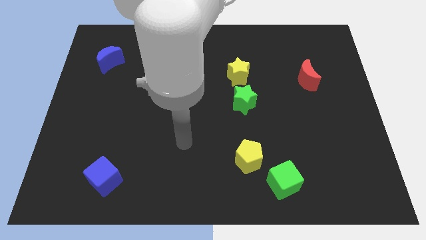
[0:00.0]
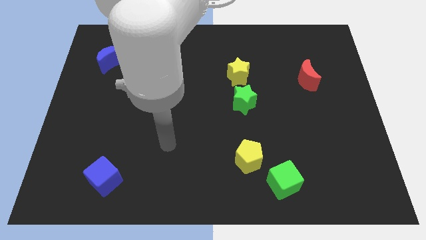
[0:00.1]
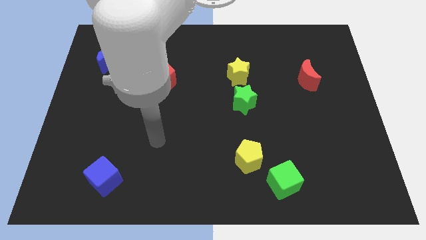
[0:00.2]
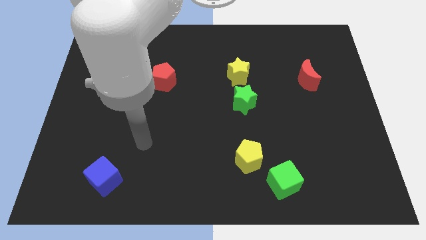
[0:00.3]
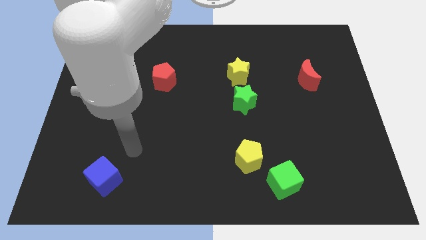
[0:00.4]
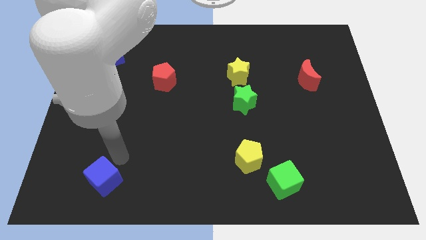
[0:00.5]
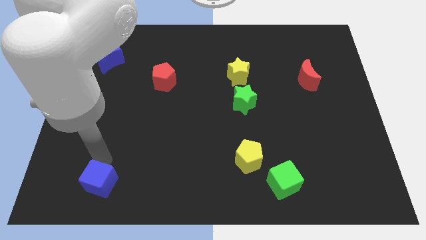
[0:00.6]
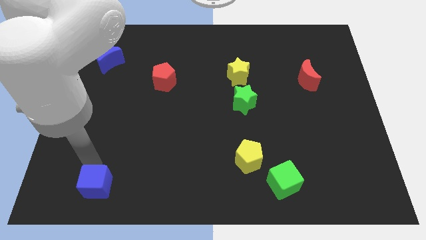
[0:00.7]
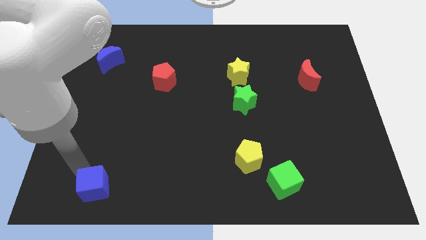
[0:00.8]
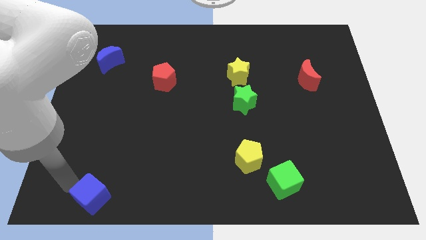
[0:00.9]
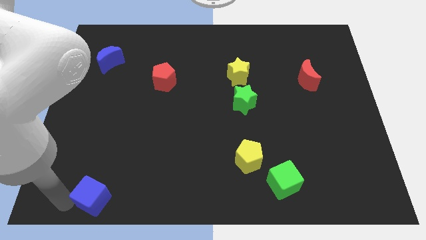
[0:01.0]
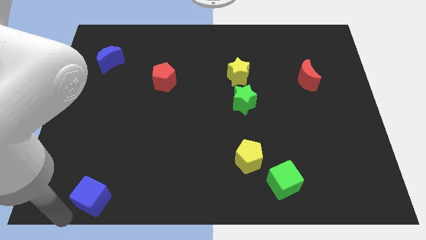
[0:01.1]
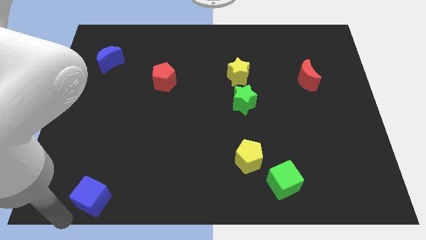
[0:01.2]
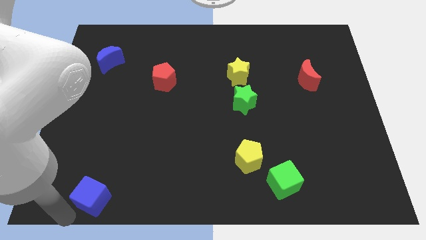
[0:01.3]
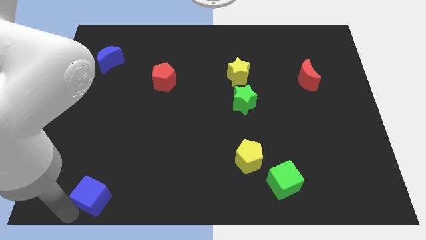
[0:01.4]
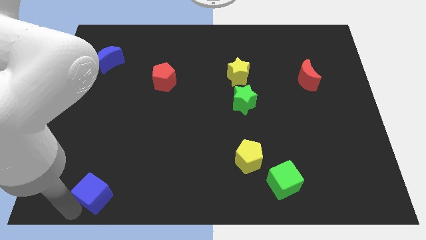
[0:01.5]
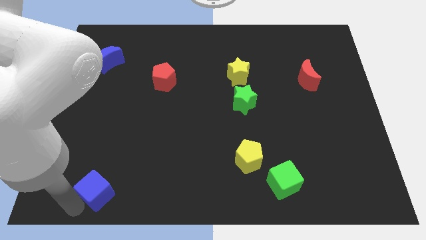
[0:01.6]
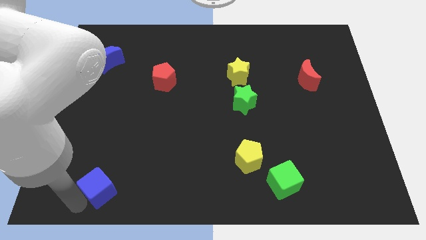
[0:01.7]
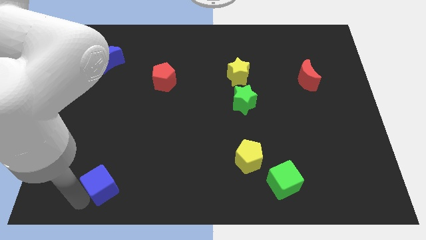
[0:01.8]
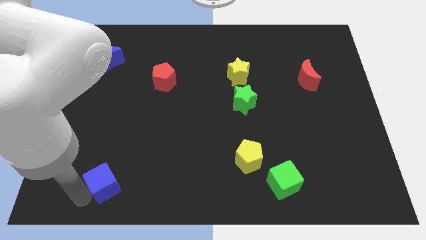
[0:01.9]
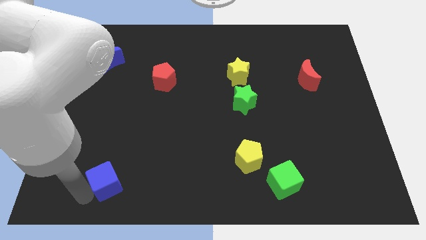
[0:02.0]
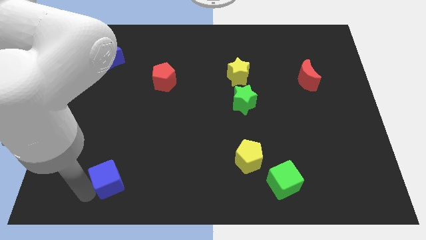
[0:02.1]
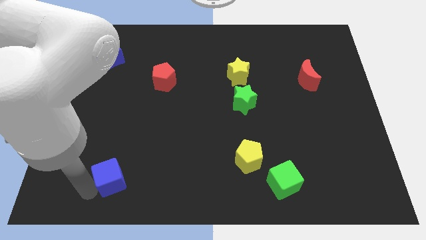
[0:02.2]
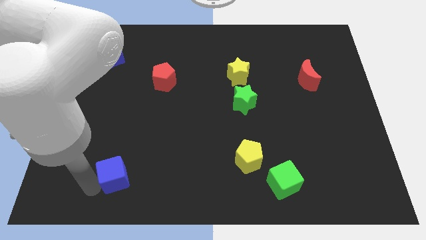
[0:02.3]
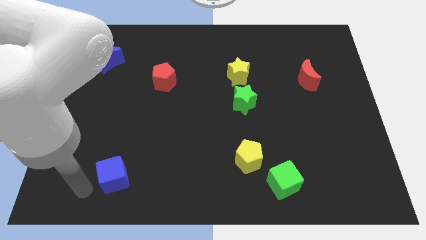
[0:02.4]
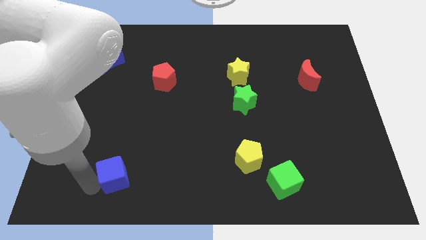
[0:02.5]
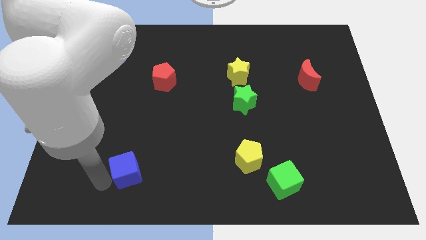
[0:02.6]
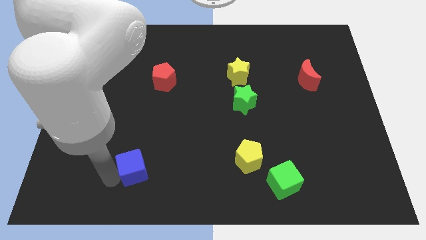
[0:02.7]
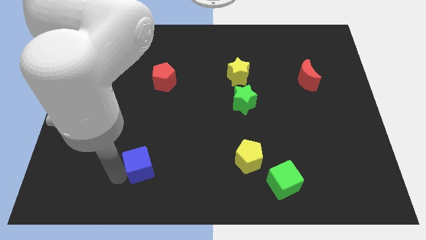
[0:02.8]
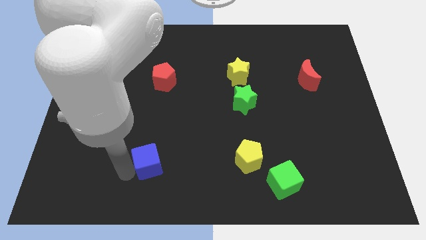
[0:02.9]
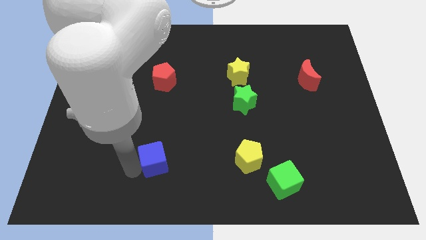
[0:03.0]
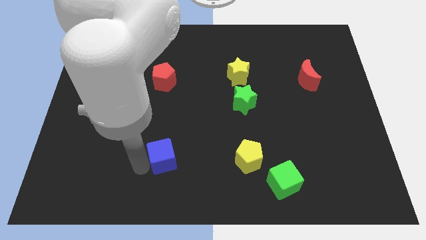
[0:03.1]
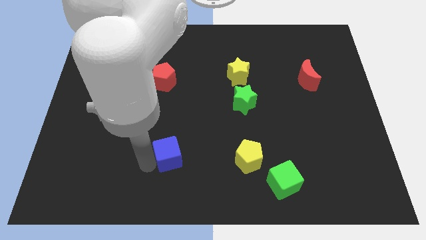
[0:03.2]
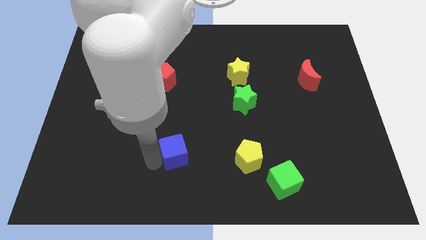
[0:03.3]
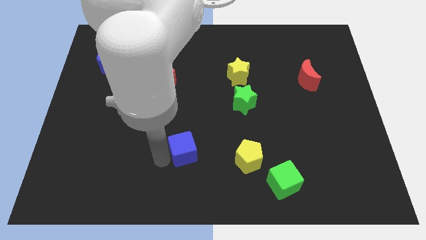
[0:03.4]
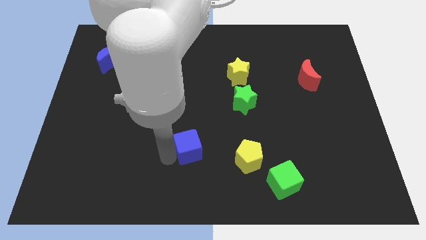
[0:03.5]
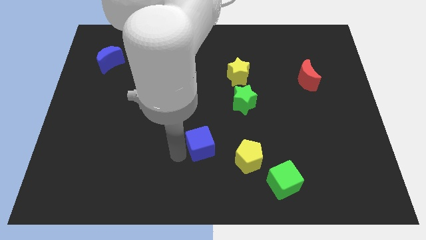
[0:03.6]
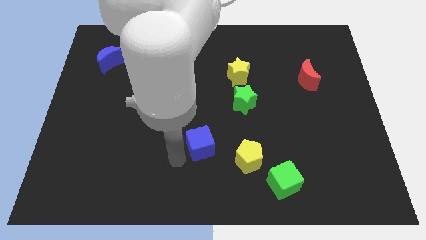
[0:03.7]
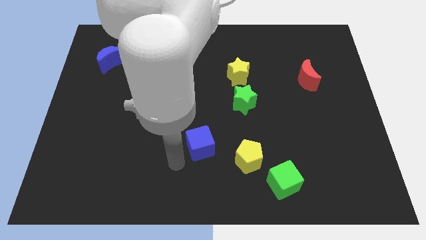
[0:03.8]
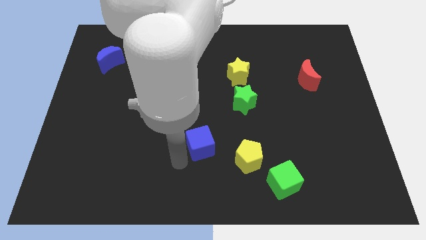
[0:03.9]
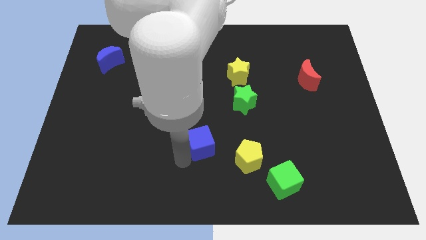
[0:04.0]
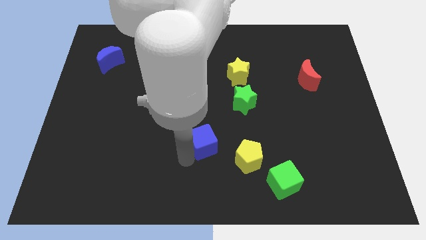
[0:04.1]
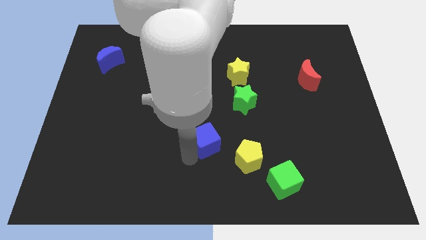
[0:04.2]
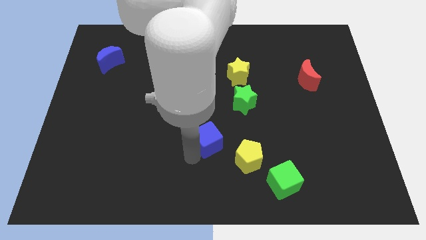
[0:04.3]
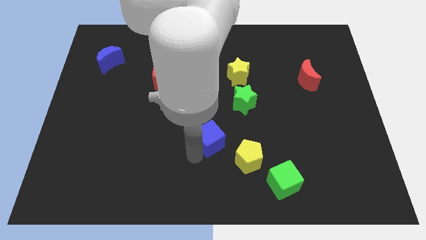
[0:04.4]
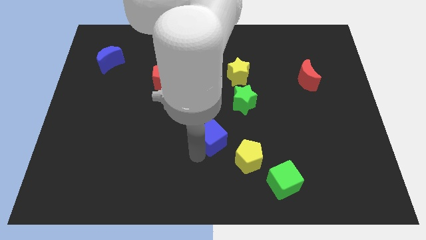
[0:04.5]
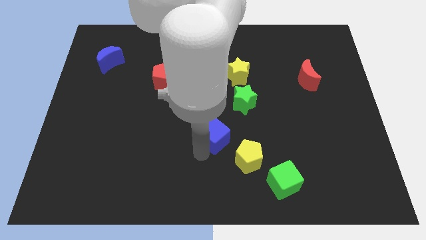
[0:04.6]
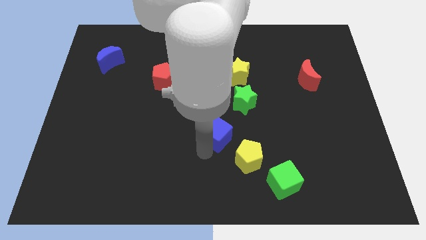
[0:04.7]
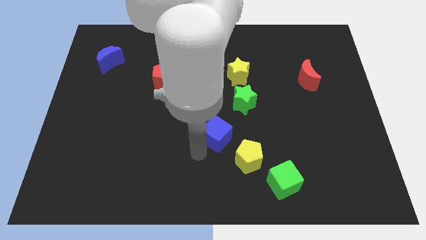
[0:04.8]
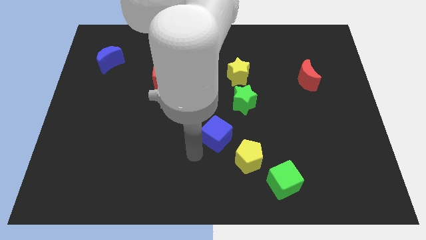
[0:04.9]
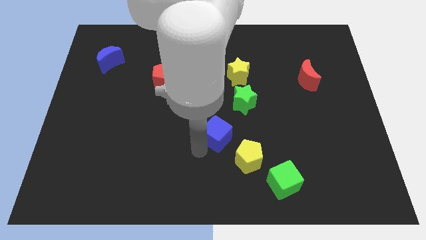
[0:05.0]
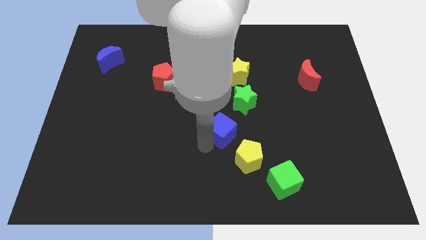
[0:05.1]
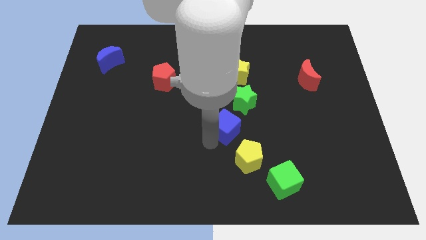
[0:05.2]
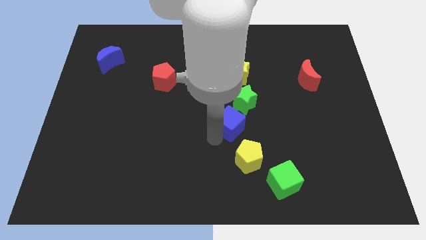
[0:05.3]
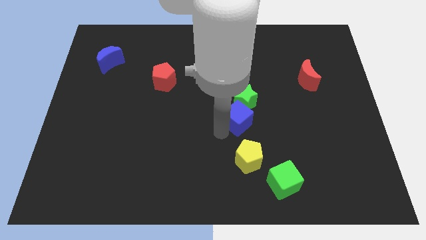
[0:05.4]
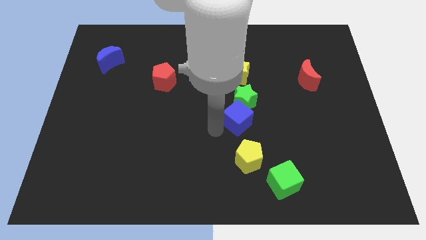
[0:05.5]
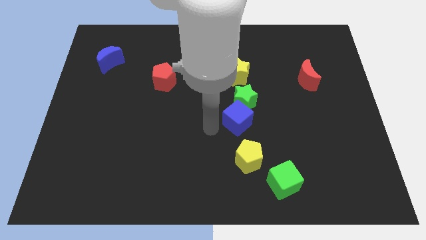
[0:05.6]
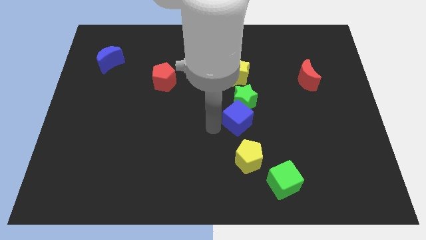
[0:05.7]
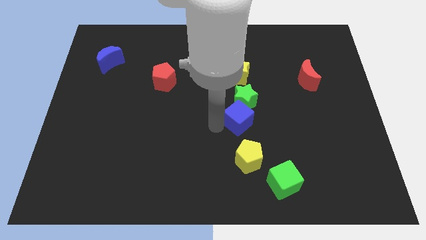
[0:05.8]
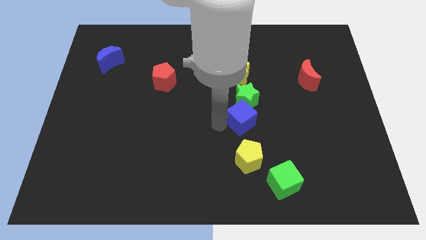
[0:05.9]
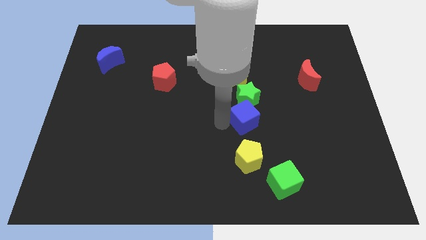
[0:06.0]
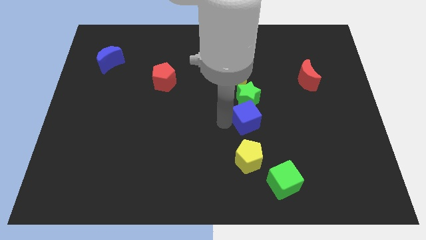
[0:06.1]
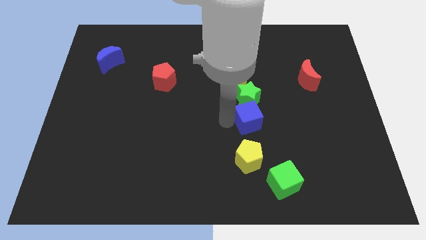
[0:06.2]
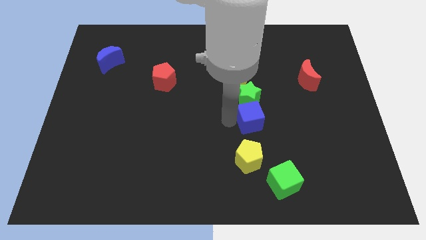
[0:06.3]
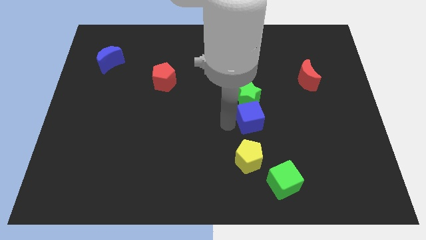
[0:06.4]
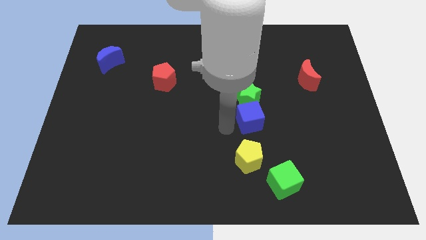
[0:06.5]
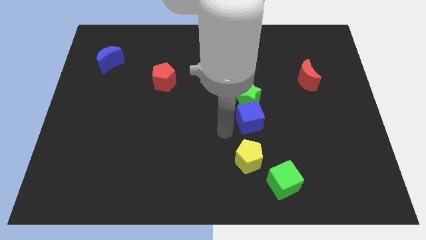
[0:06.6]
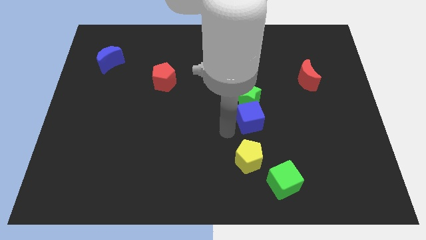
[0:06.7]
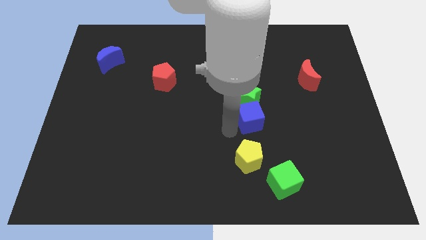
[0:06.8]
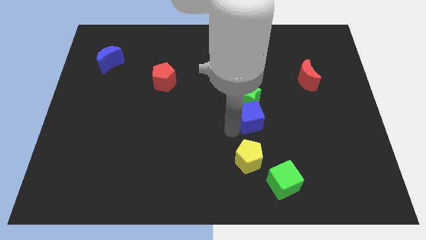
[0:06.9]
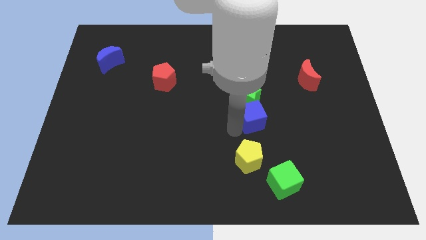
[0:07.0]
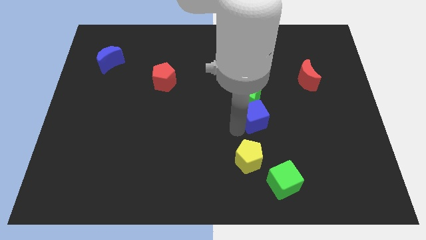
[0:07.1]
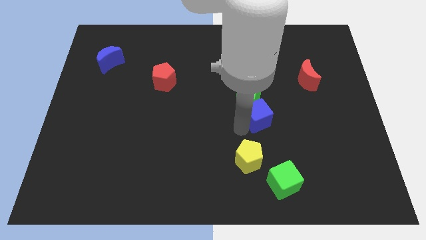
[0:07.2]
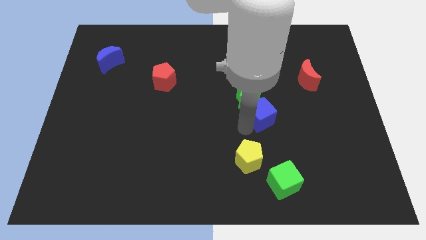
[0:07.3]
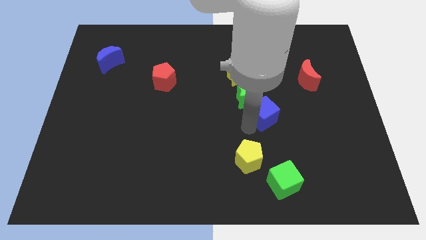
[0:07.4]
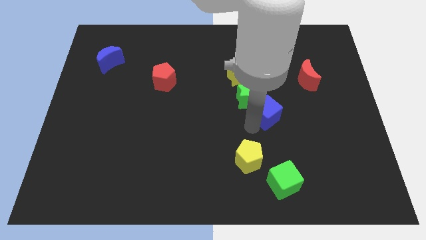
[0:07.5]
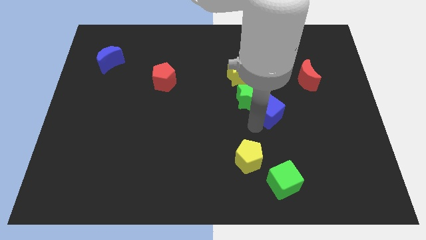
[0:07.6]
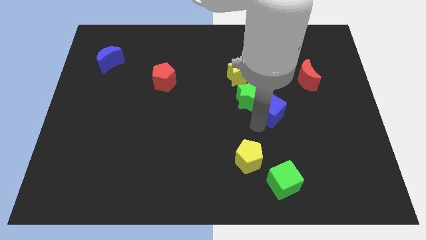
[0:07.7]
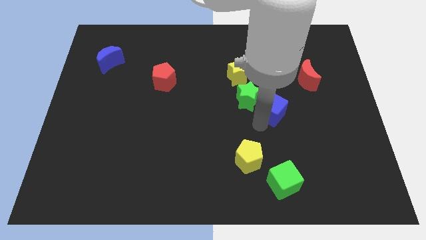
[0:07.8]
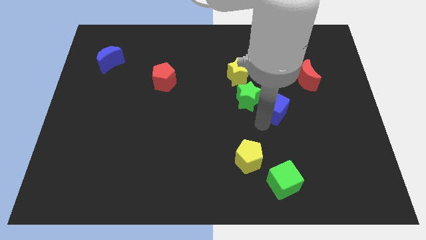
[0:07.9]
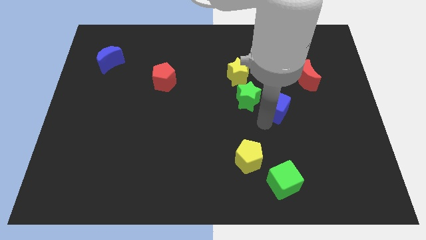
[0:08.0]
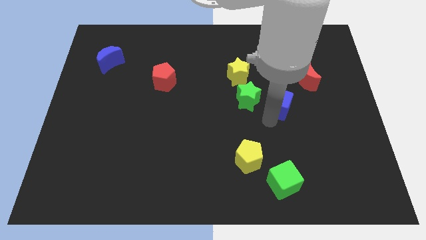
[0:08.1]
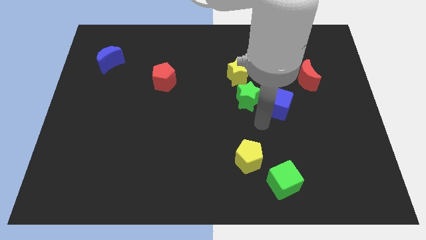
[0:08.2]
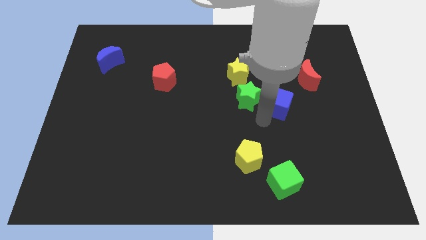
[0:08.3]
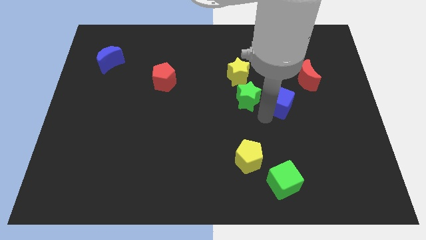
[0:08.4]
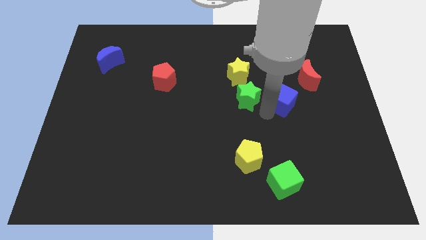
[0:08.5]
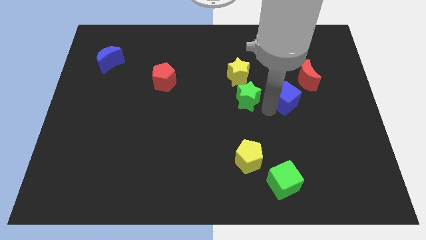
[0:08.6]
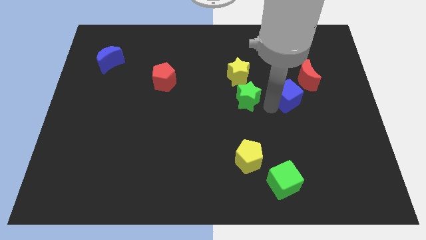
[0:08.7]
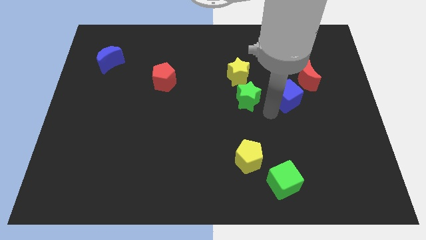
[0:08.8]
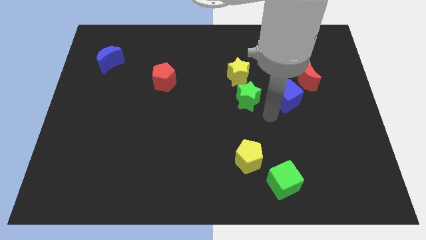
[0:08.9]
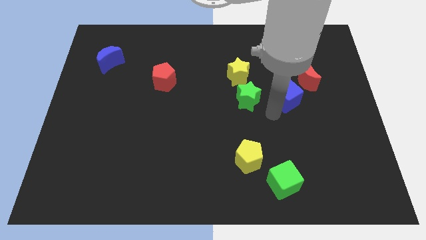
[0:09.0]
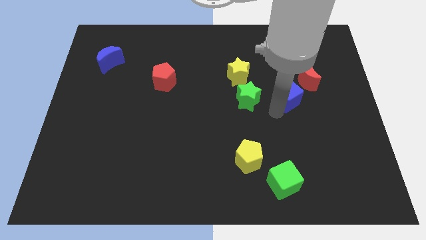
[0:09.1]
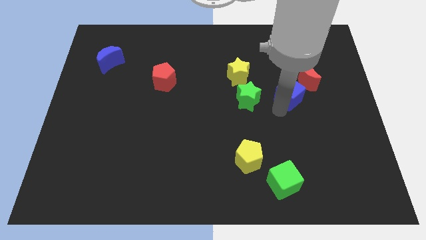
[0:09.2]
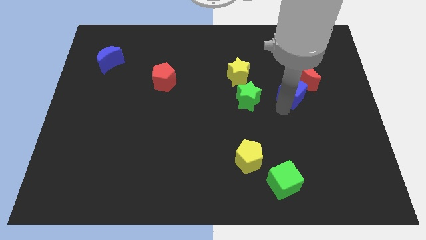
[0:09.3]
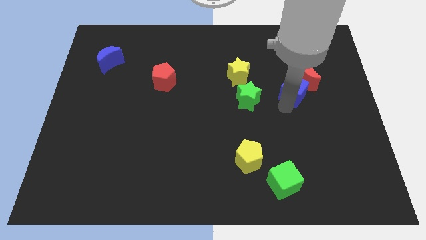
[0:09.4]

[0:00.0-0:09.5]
move the blue cube to the red moon
